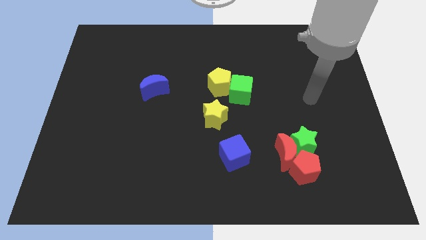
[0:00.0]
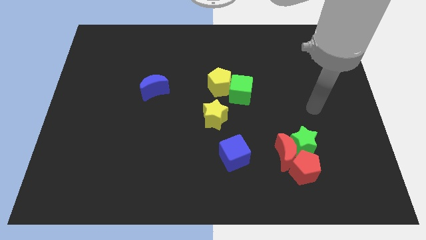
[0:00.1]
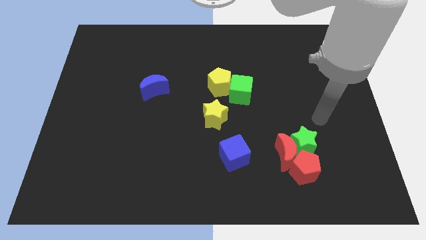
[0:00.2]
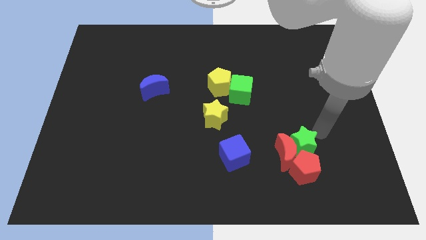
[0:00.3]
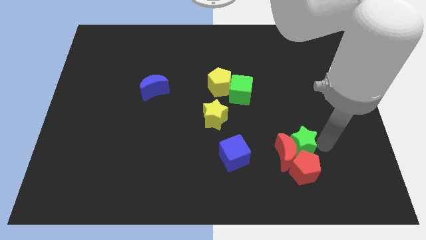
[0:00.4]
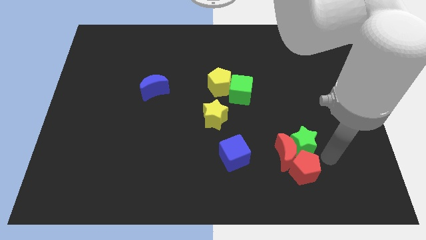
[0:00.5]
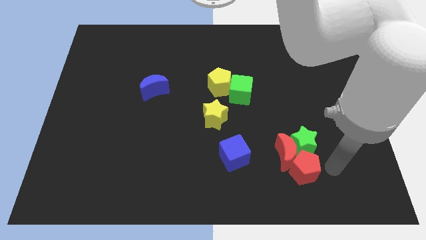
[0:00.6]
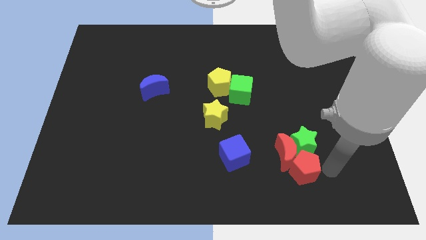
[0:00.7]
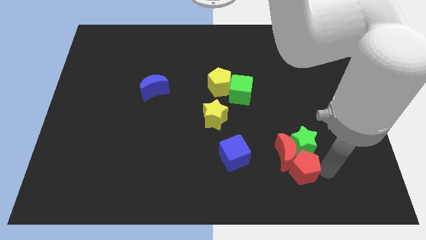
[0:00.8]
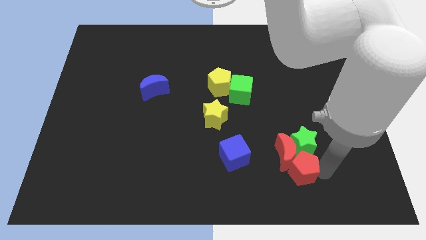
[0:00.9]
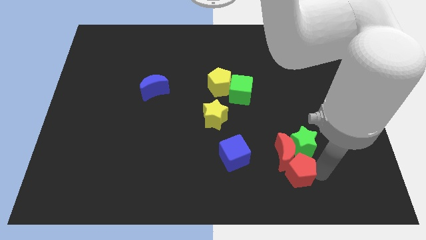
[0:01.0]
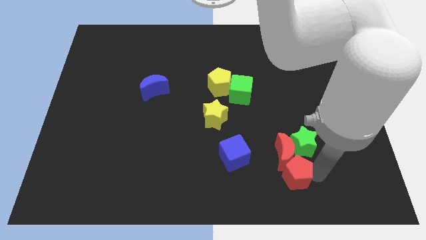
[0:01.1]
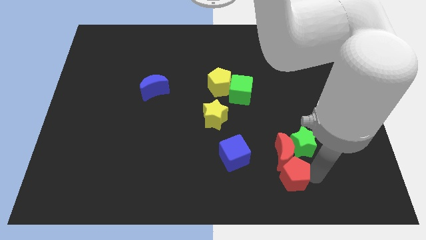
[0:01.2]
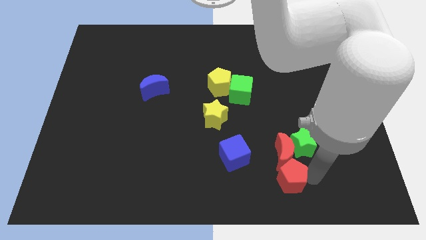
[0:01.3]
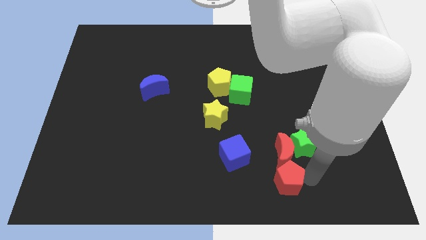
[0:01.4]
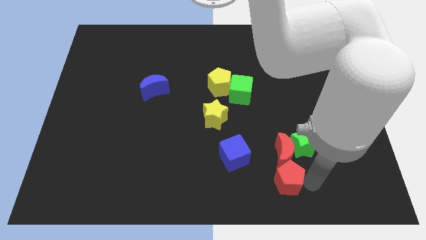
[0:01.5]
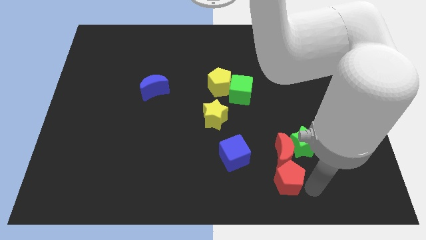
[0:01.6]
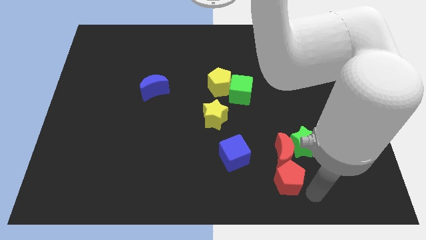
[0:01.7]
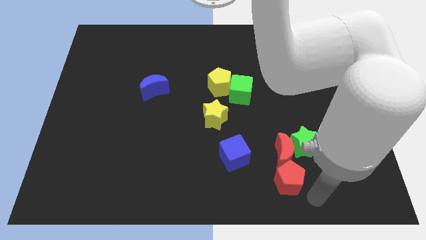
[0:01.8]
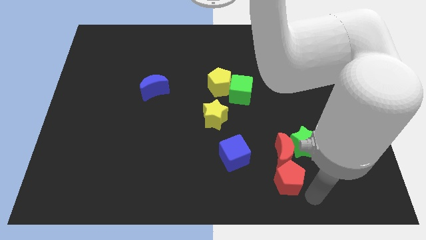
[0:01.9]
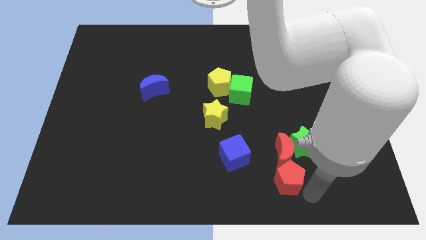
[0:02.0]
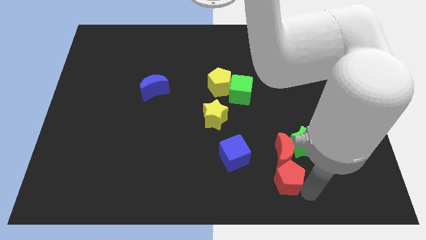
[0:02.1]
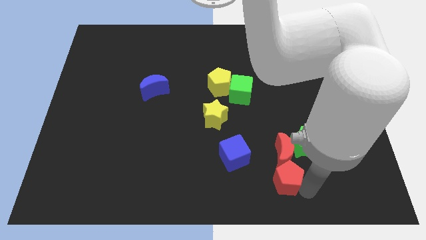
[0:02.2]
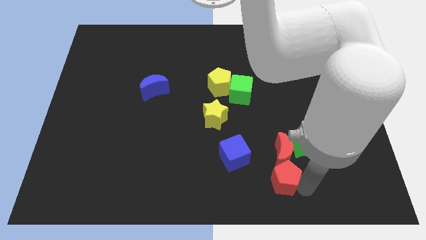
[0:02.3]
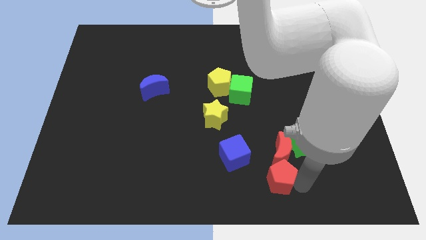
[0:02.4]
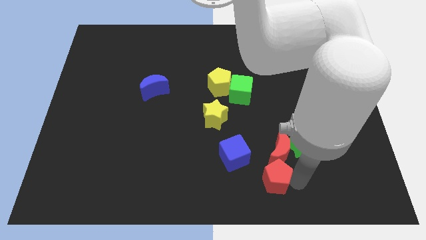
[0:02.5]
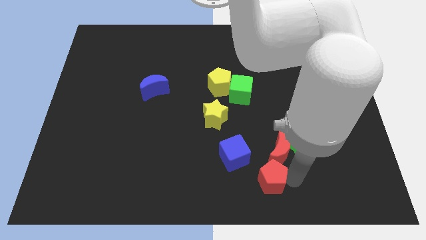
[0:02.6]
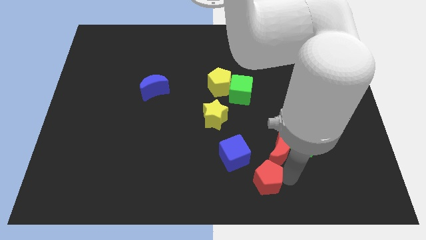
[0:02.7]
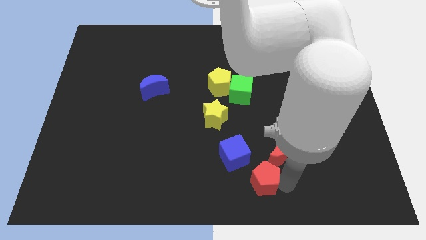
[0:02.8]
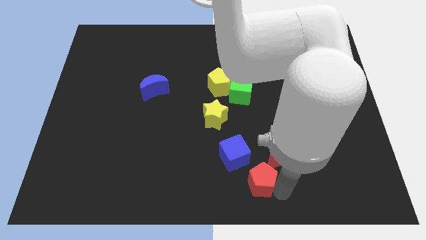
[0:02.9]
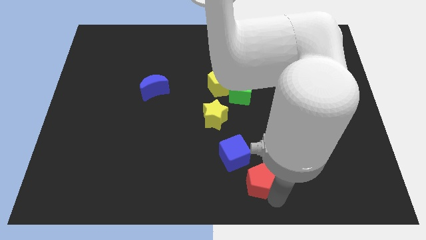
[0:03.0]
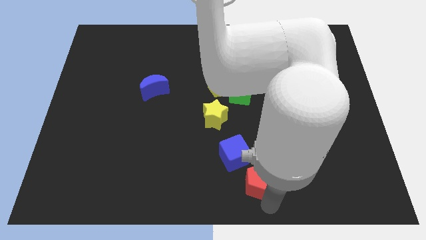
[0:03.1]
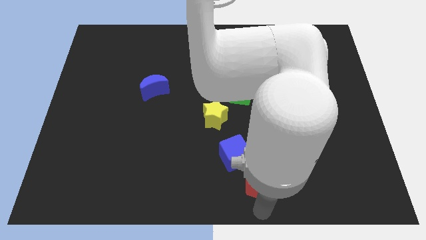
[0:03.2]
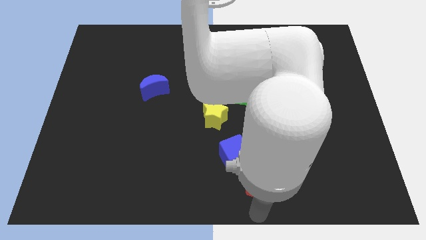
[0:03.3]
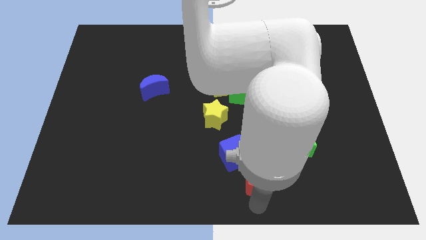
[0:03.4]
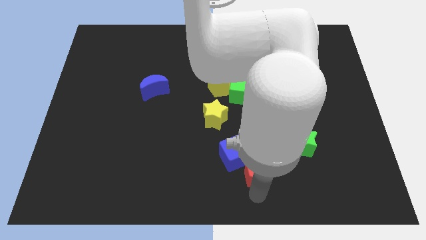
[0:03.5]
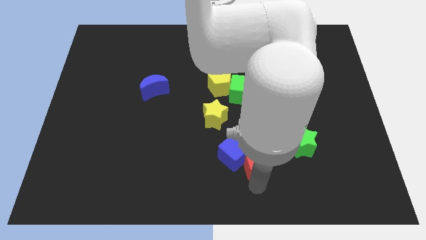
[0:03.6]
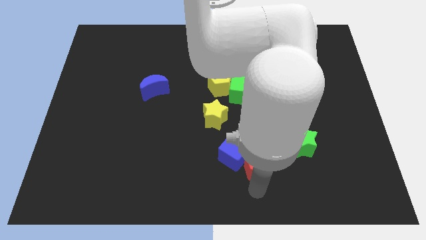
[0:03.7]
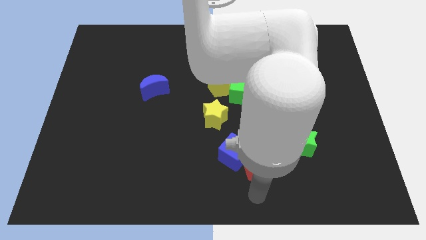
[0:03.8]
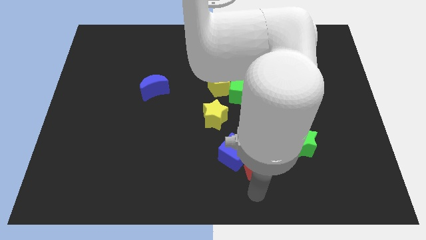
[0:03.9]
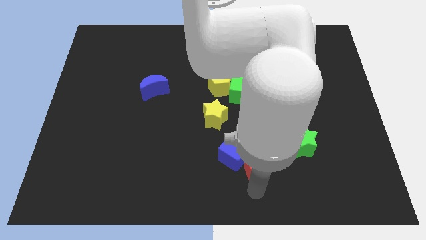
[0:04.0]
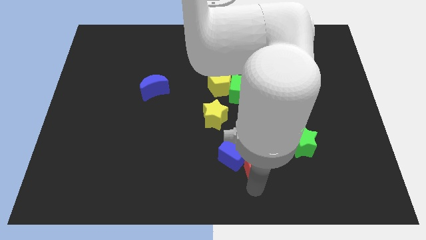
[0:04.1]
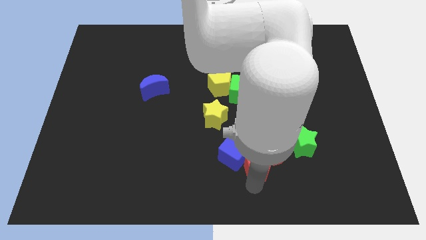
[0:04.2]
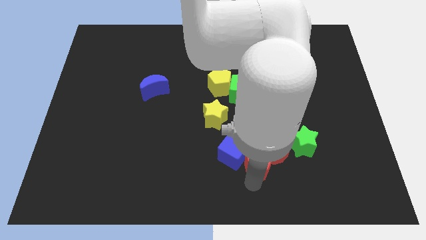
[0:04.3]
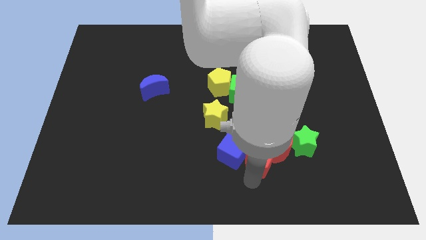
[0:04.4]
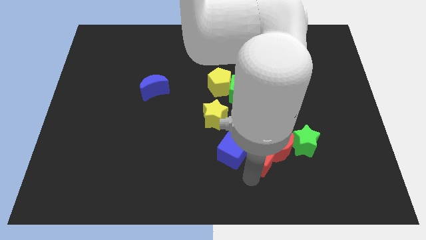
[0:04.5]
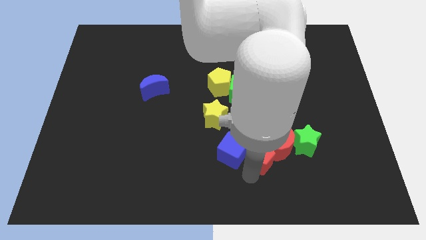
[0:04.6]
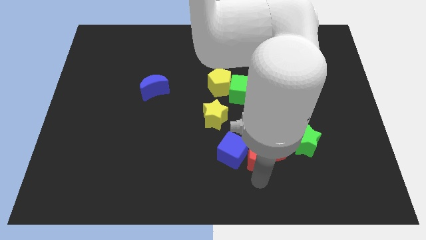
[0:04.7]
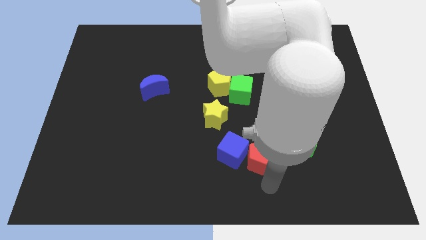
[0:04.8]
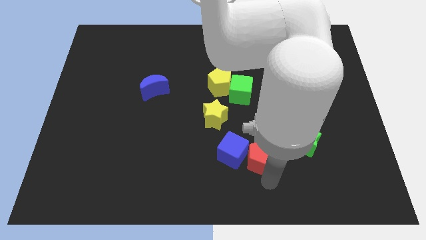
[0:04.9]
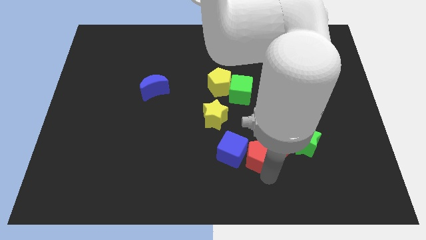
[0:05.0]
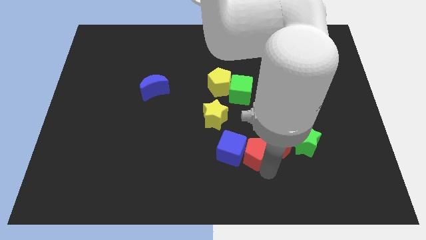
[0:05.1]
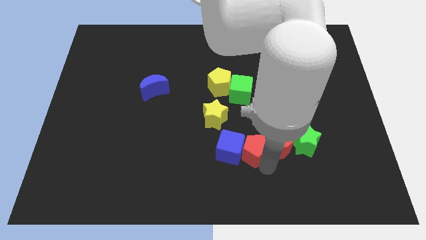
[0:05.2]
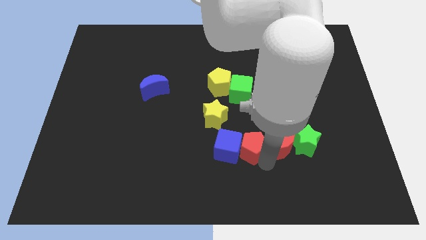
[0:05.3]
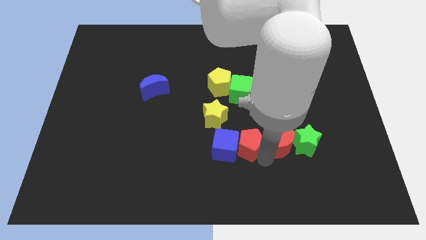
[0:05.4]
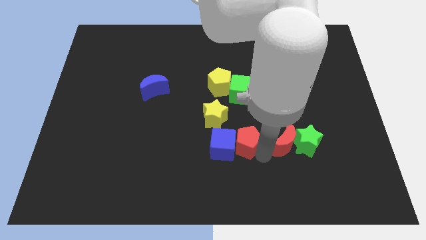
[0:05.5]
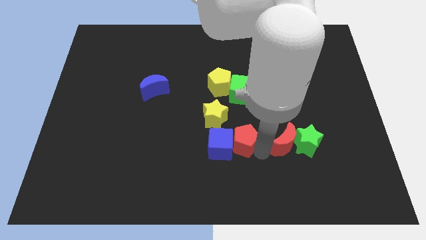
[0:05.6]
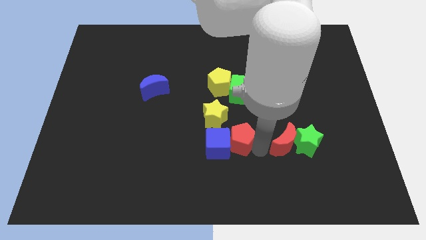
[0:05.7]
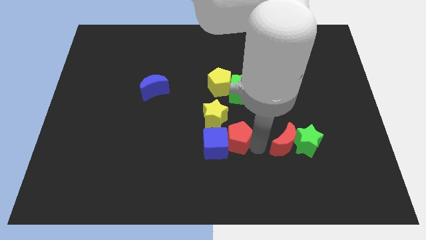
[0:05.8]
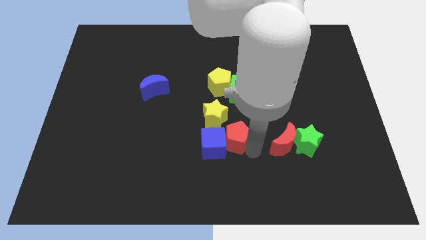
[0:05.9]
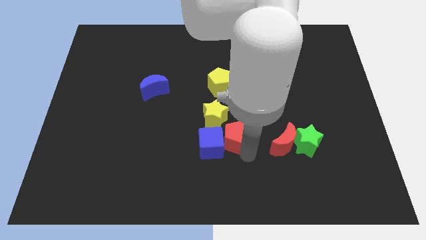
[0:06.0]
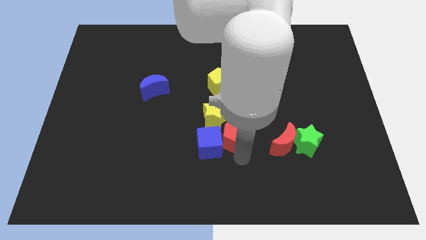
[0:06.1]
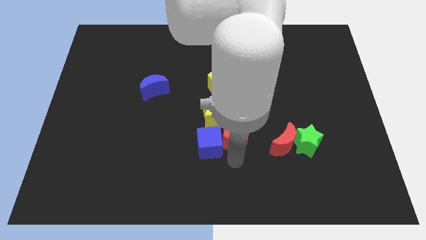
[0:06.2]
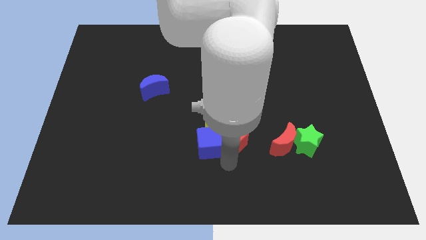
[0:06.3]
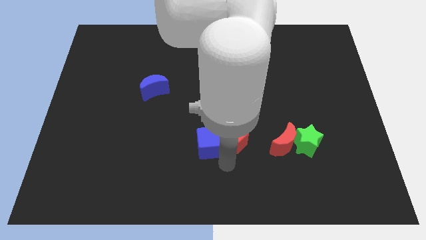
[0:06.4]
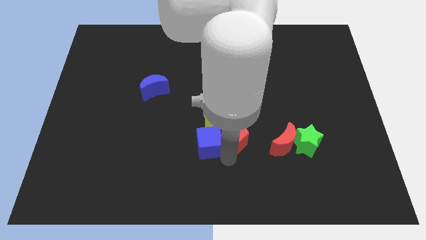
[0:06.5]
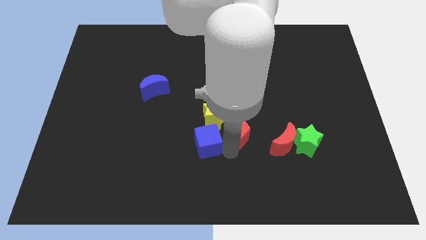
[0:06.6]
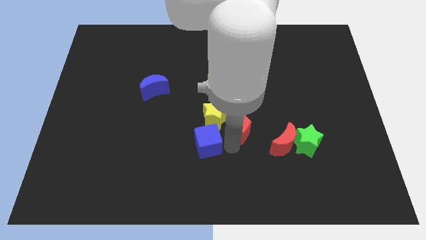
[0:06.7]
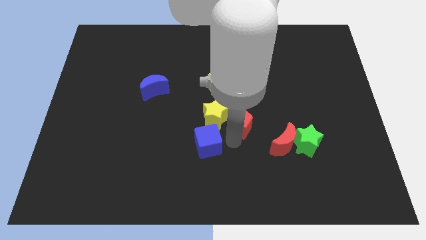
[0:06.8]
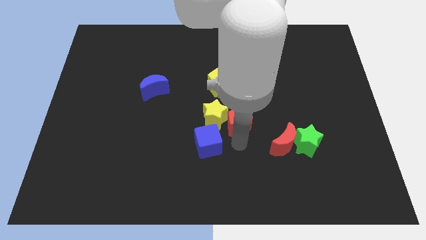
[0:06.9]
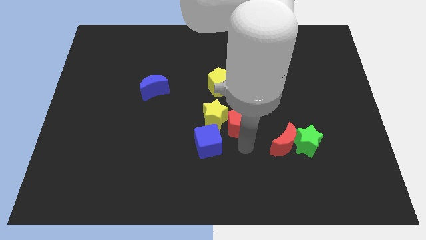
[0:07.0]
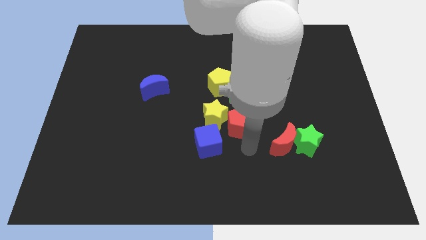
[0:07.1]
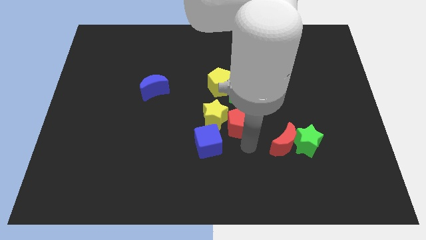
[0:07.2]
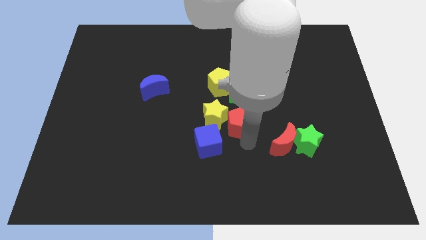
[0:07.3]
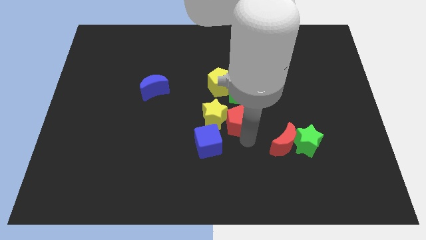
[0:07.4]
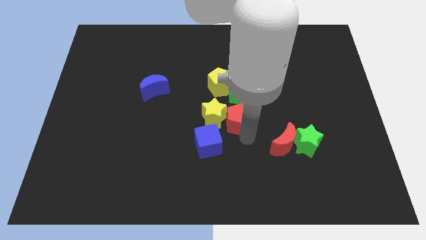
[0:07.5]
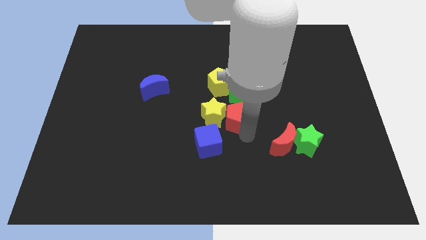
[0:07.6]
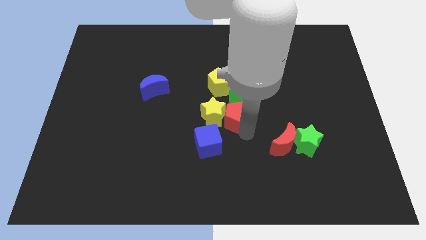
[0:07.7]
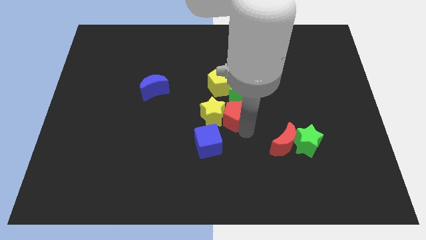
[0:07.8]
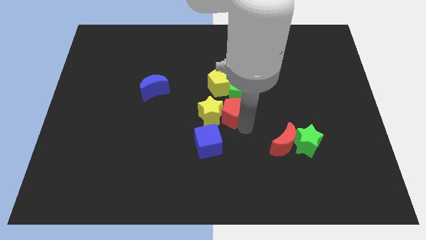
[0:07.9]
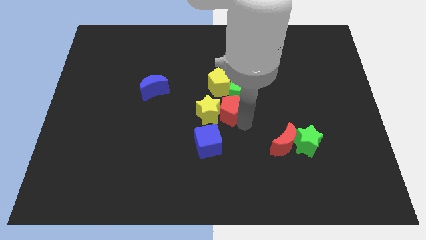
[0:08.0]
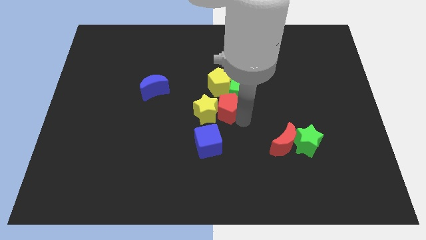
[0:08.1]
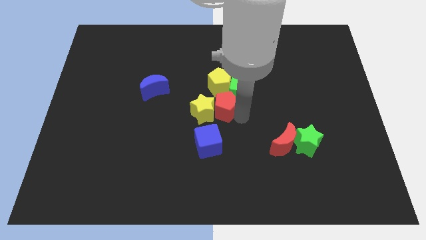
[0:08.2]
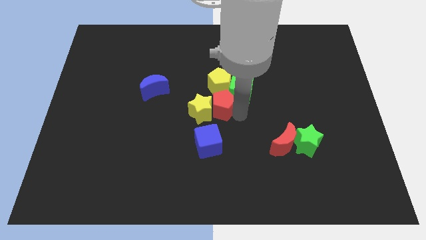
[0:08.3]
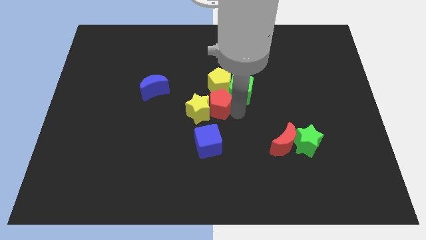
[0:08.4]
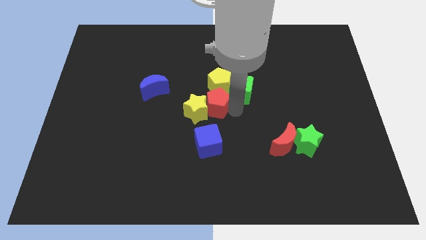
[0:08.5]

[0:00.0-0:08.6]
put the red pentagon next to the yellow pentagon
